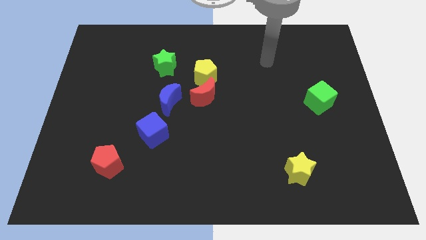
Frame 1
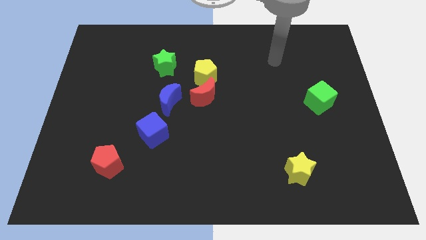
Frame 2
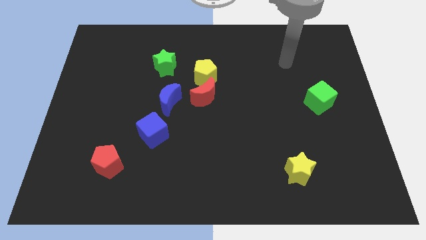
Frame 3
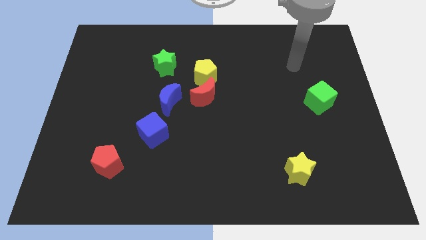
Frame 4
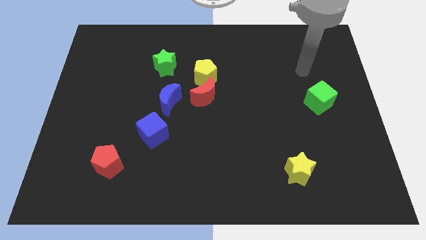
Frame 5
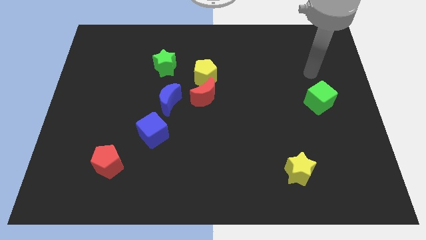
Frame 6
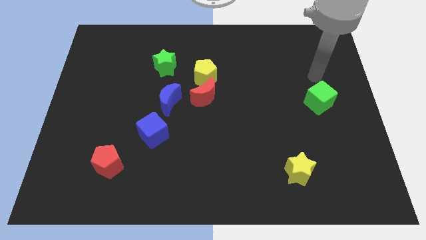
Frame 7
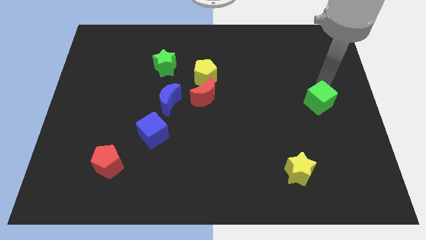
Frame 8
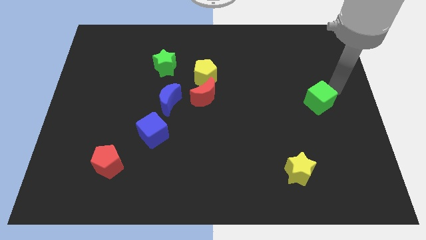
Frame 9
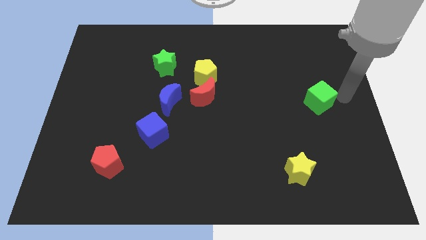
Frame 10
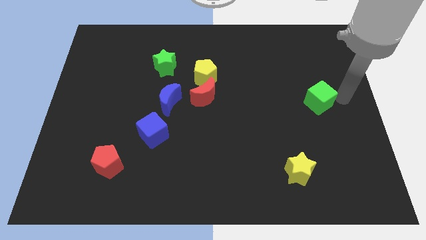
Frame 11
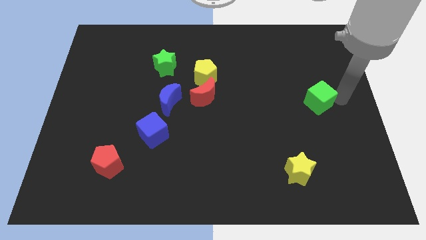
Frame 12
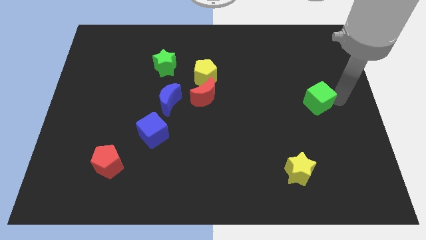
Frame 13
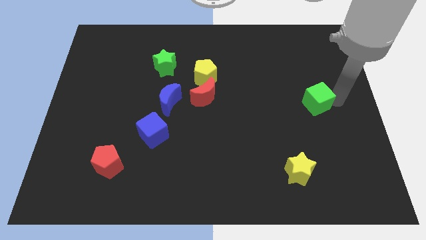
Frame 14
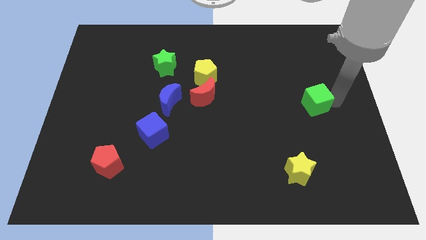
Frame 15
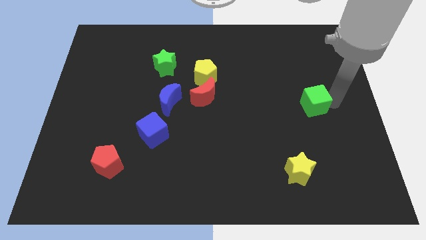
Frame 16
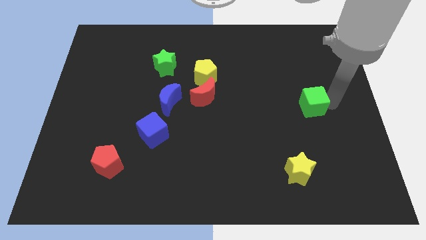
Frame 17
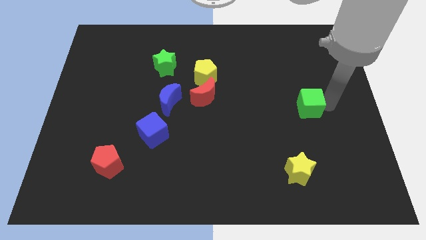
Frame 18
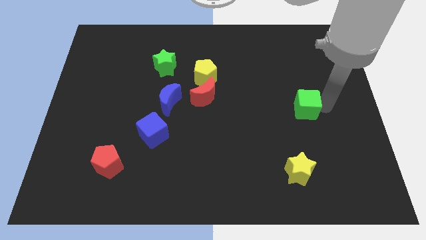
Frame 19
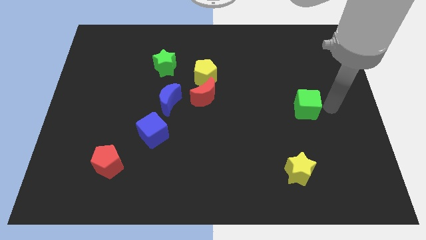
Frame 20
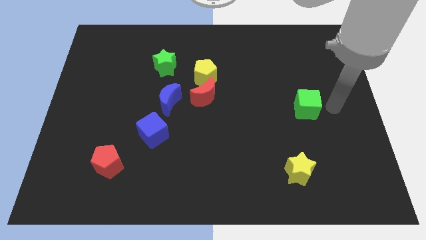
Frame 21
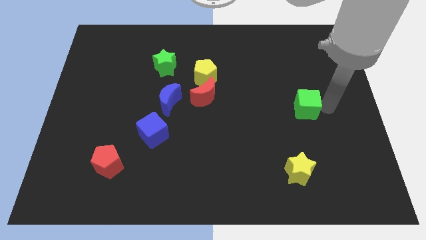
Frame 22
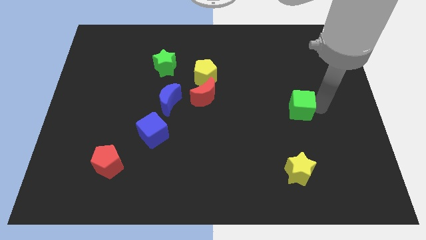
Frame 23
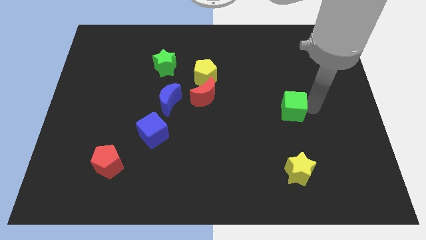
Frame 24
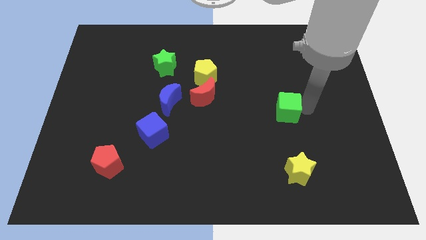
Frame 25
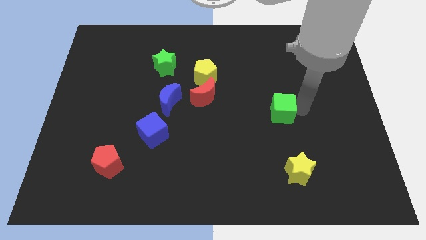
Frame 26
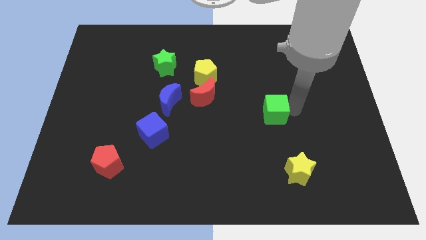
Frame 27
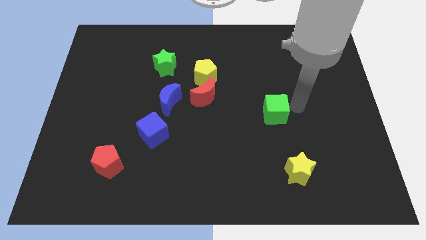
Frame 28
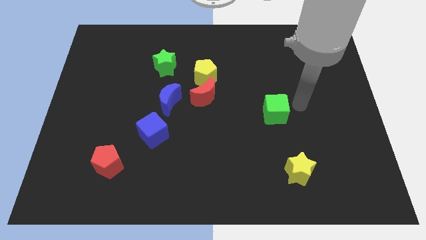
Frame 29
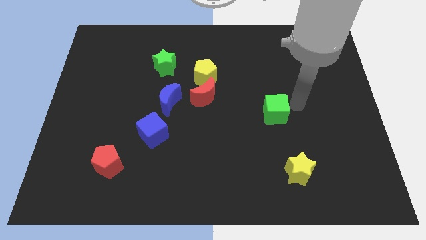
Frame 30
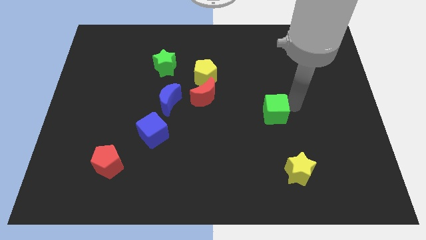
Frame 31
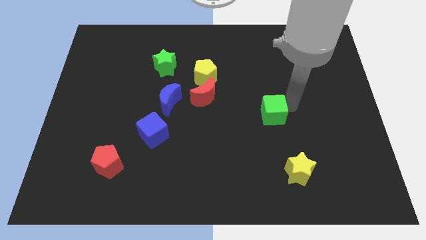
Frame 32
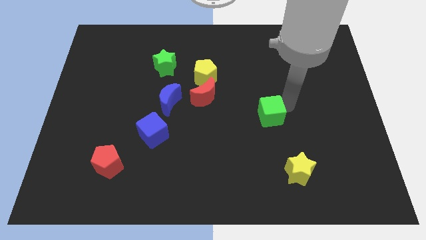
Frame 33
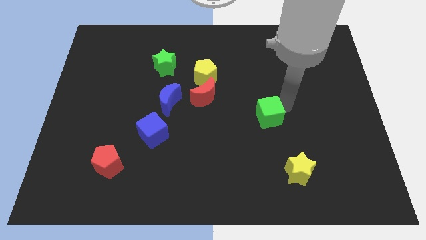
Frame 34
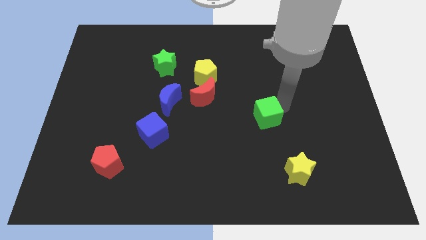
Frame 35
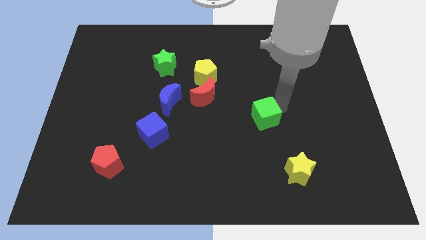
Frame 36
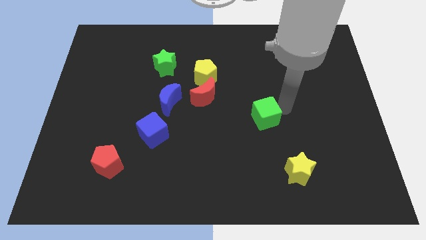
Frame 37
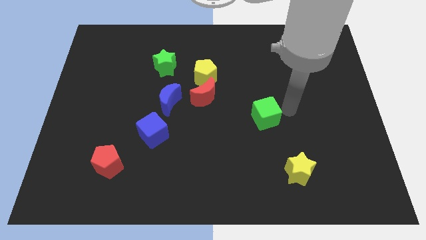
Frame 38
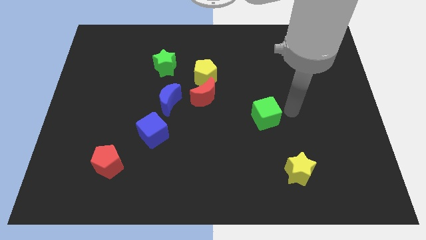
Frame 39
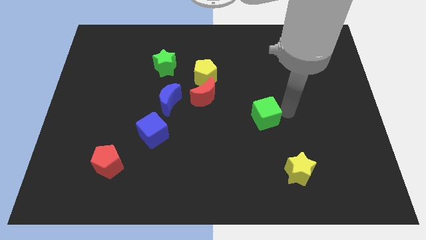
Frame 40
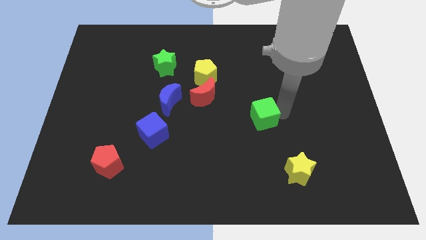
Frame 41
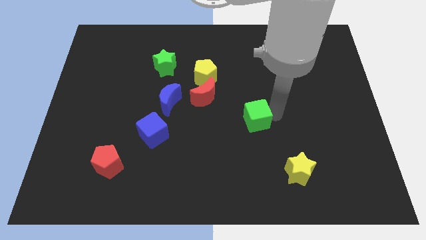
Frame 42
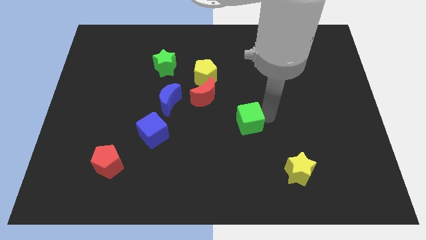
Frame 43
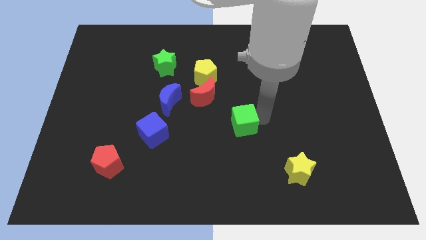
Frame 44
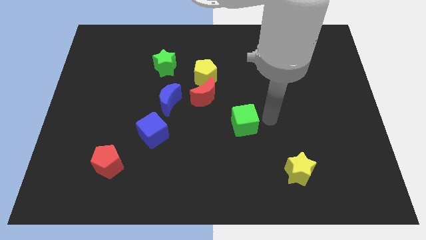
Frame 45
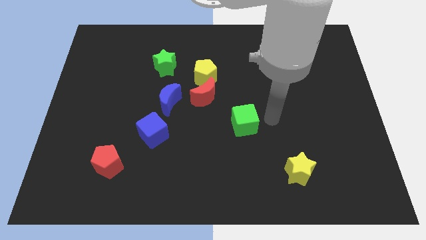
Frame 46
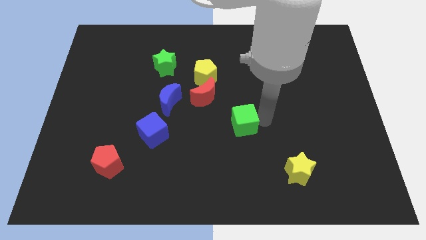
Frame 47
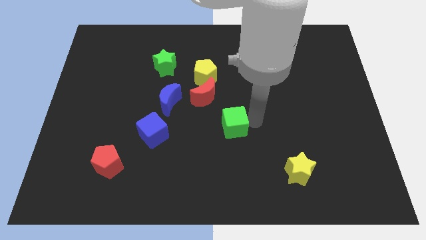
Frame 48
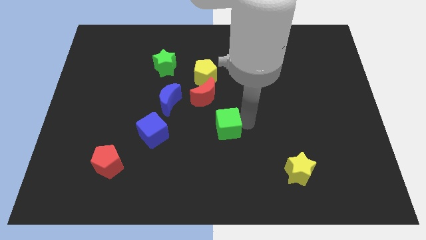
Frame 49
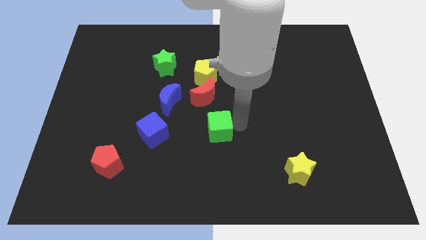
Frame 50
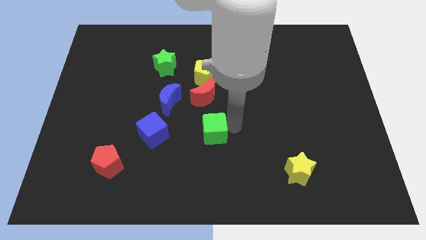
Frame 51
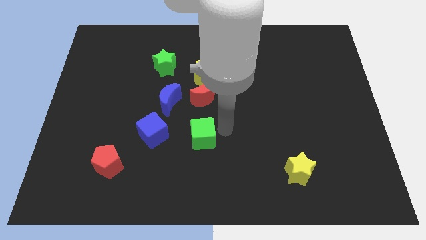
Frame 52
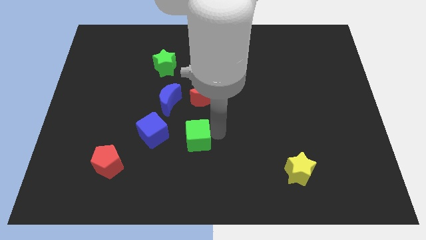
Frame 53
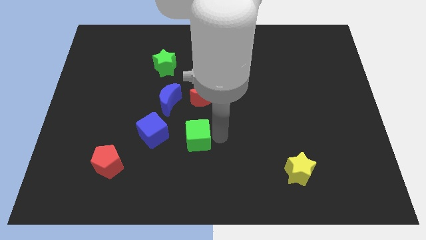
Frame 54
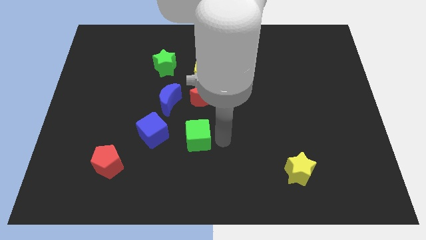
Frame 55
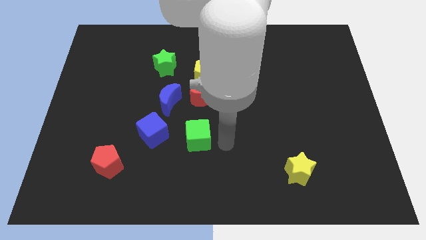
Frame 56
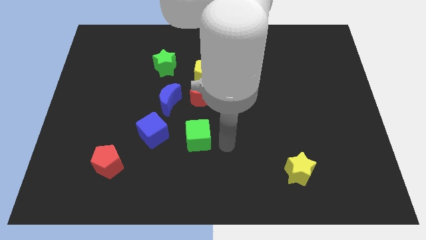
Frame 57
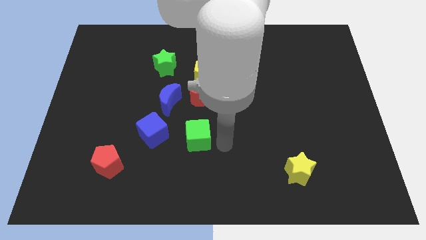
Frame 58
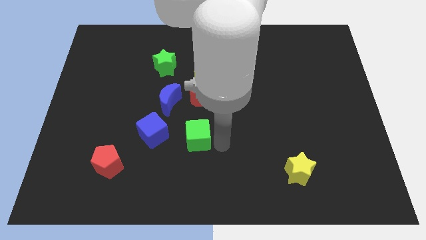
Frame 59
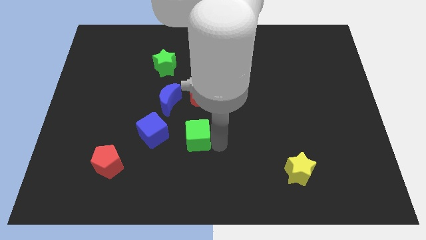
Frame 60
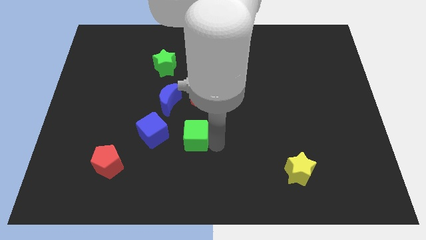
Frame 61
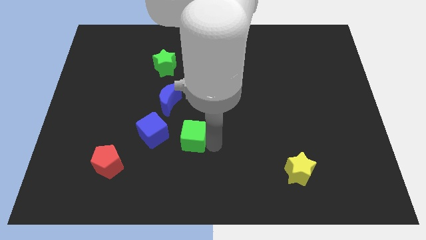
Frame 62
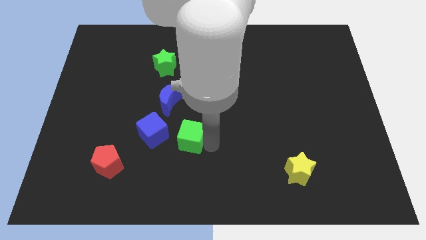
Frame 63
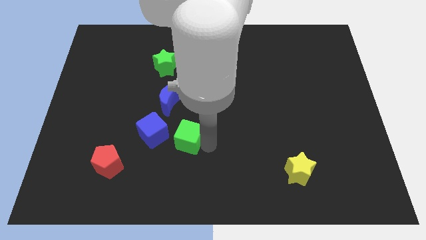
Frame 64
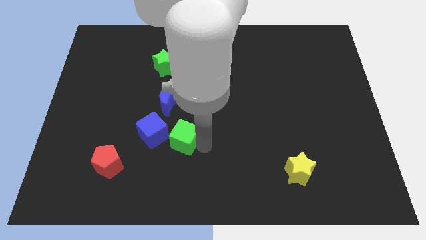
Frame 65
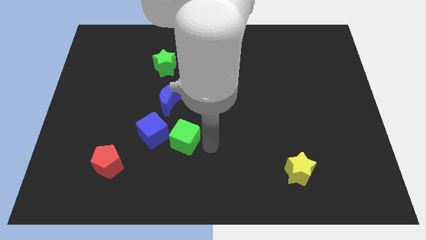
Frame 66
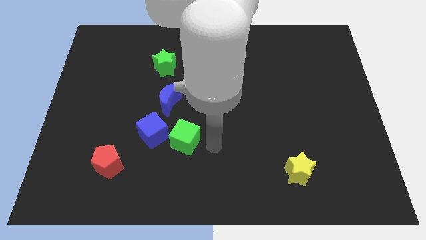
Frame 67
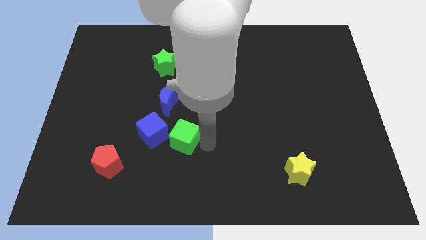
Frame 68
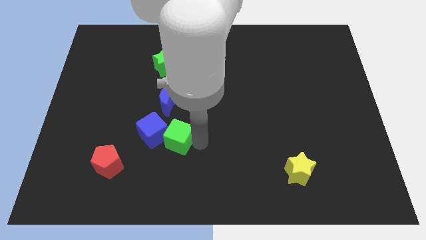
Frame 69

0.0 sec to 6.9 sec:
put the green cube close to the blue cube
